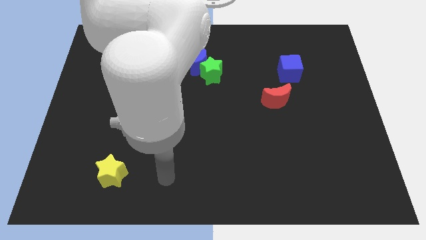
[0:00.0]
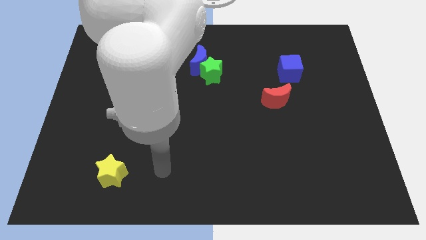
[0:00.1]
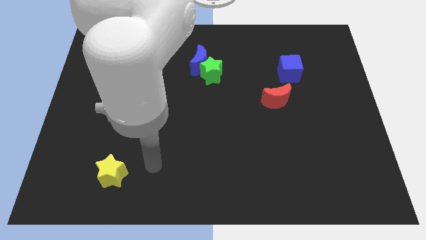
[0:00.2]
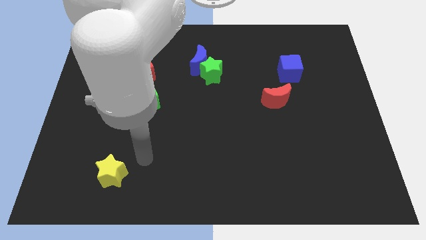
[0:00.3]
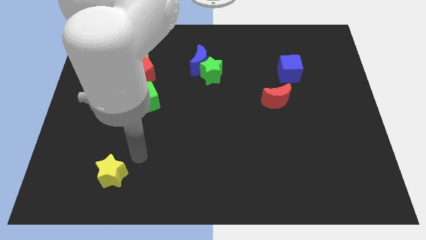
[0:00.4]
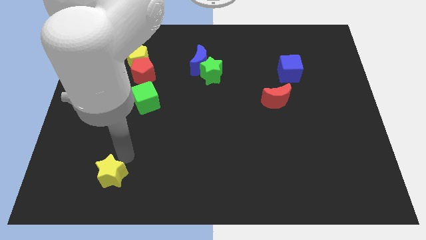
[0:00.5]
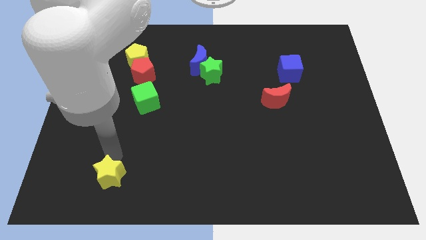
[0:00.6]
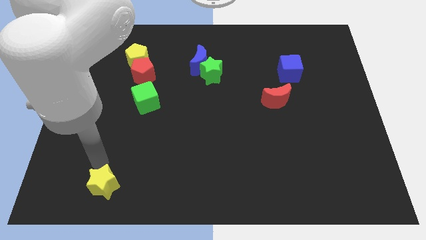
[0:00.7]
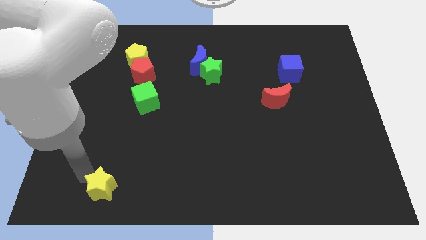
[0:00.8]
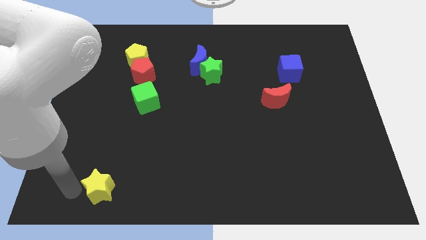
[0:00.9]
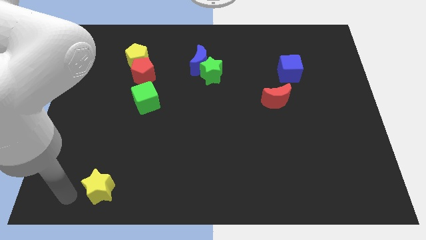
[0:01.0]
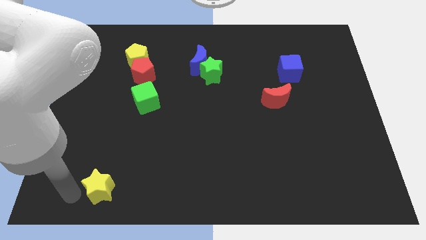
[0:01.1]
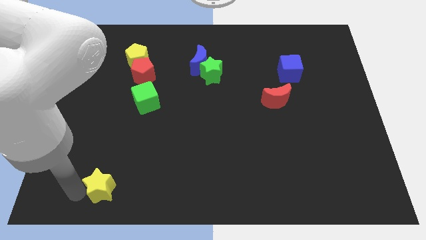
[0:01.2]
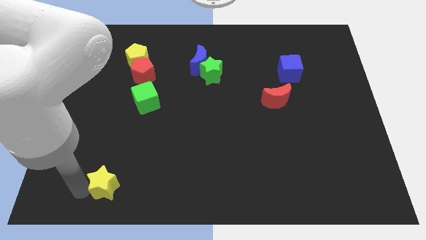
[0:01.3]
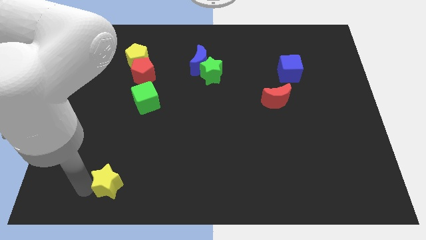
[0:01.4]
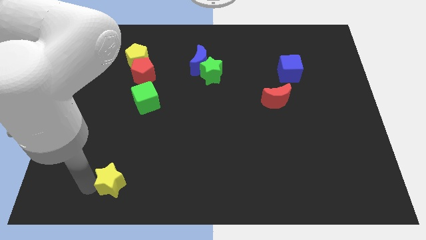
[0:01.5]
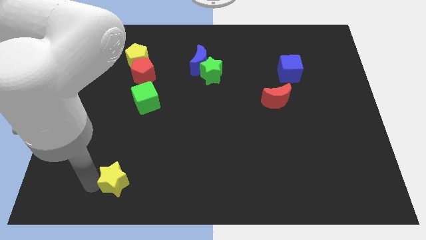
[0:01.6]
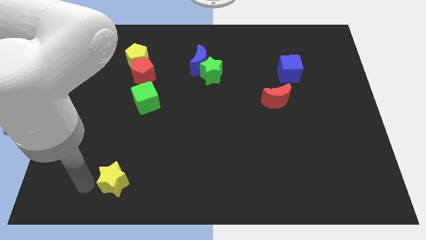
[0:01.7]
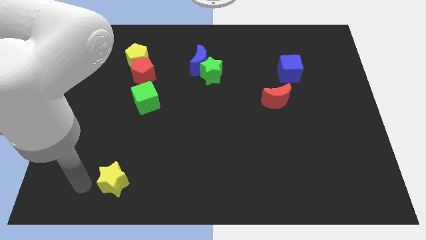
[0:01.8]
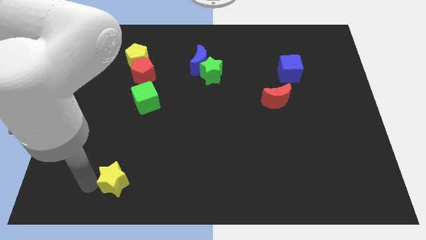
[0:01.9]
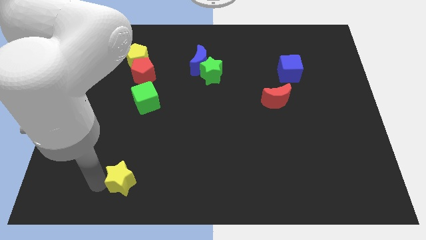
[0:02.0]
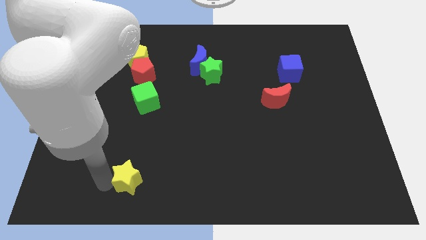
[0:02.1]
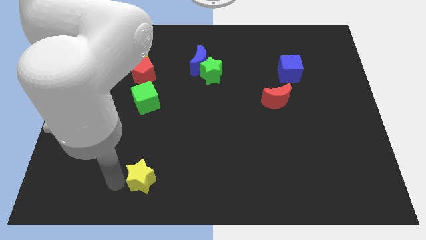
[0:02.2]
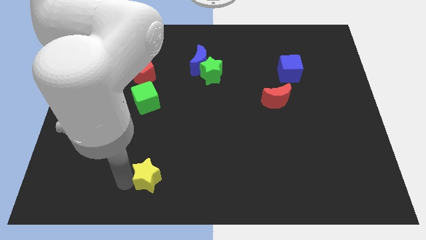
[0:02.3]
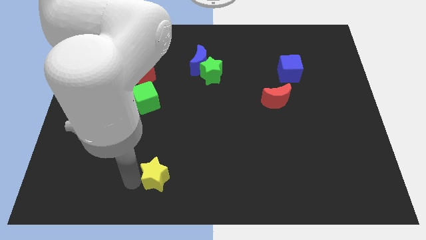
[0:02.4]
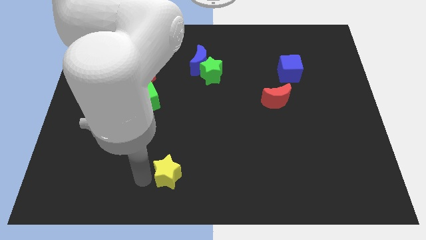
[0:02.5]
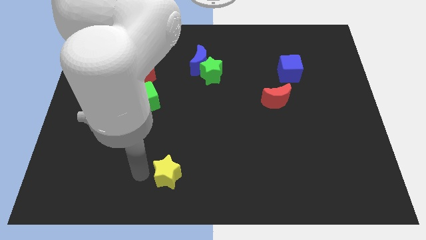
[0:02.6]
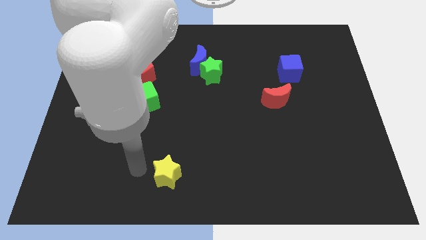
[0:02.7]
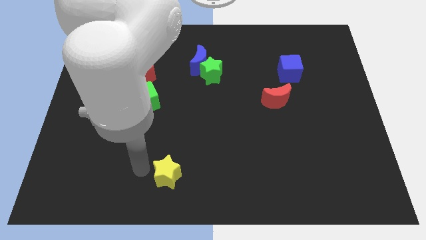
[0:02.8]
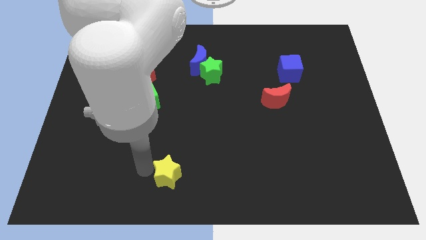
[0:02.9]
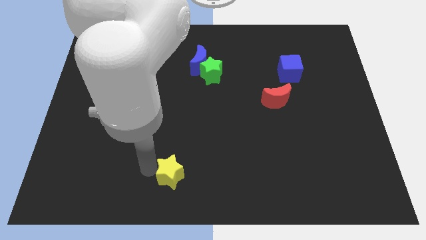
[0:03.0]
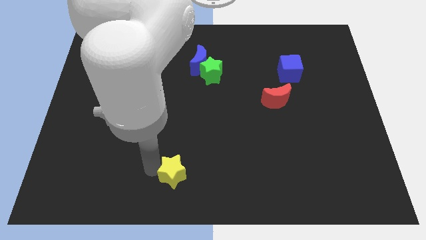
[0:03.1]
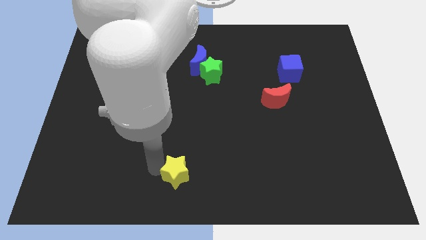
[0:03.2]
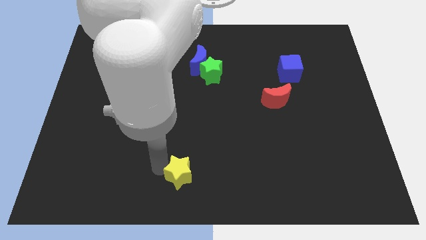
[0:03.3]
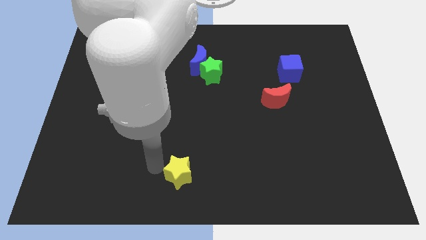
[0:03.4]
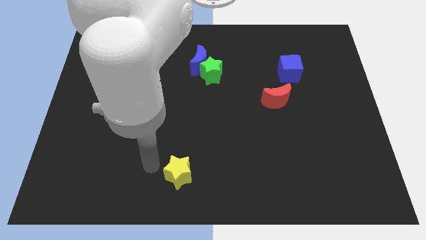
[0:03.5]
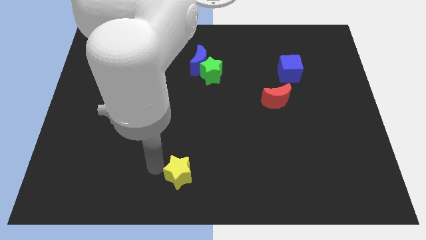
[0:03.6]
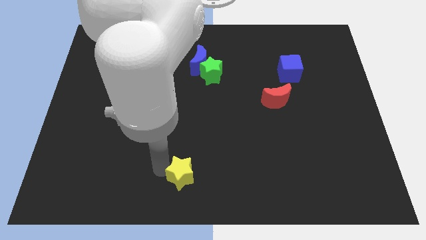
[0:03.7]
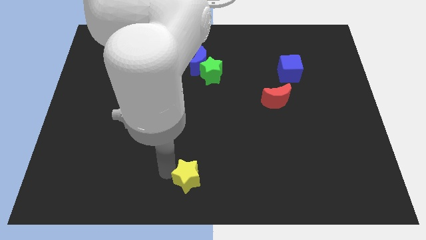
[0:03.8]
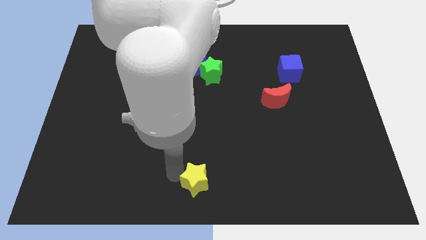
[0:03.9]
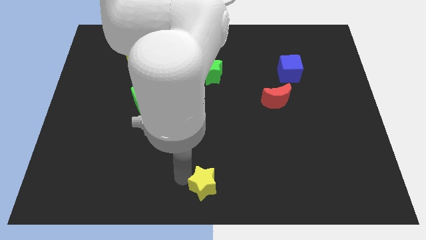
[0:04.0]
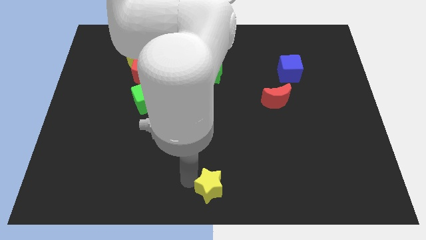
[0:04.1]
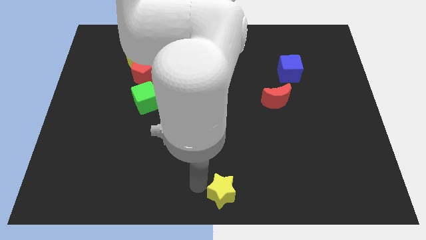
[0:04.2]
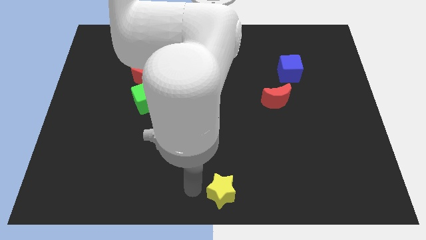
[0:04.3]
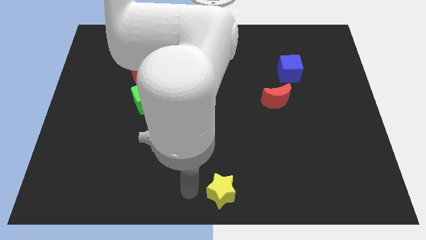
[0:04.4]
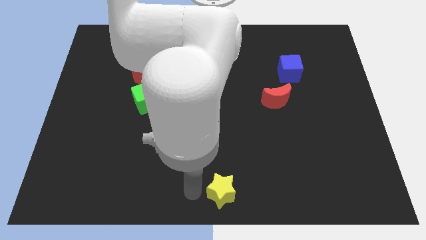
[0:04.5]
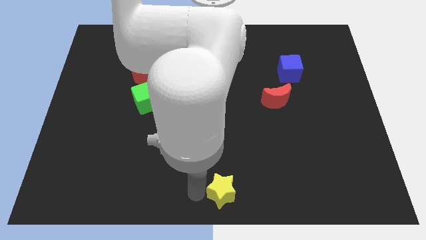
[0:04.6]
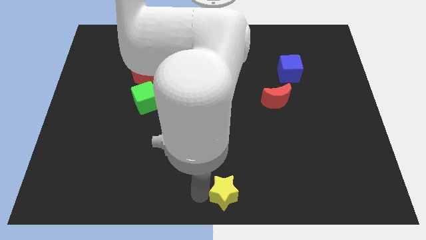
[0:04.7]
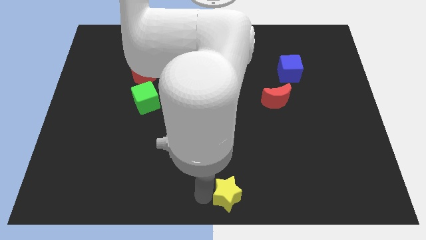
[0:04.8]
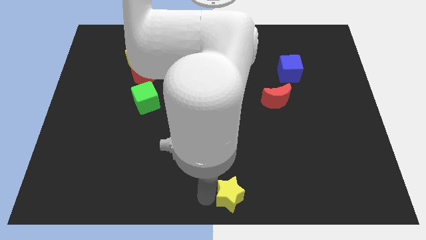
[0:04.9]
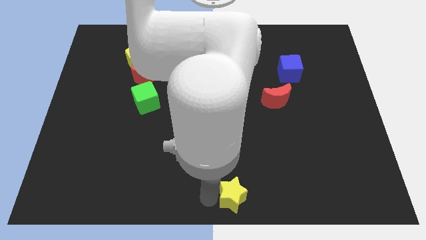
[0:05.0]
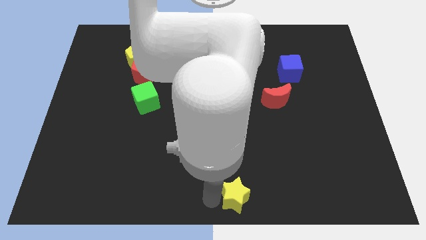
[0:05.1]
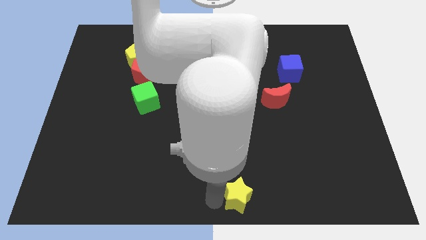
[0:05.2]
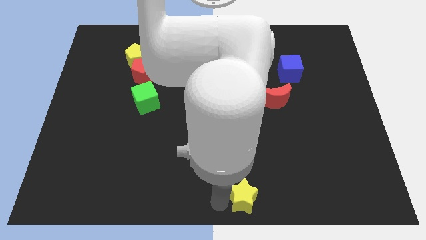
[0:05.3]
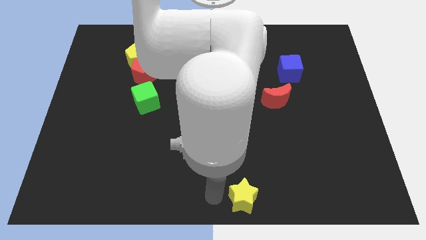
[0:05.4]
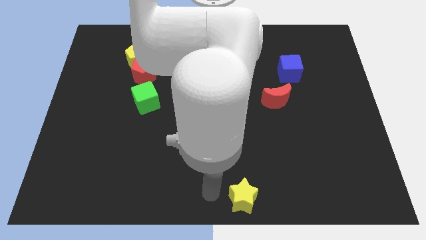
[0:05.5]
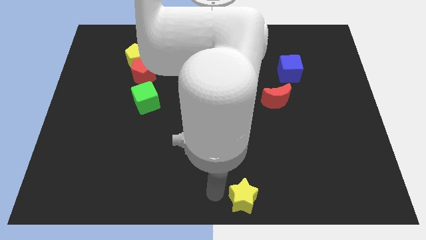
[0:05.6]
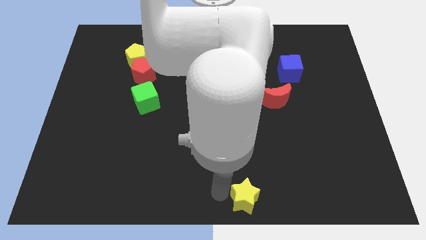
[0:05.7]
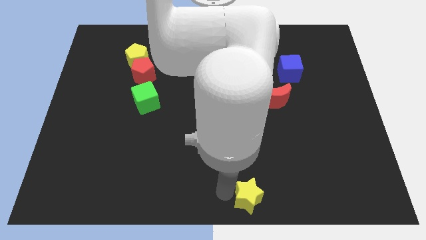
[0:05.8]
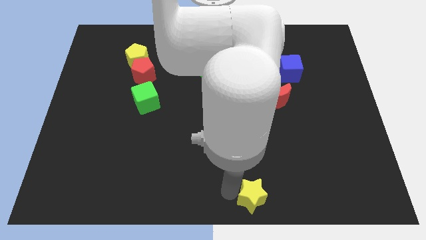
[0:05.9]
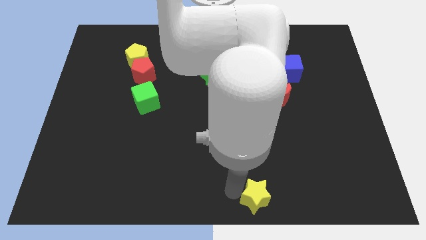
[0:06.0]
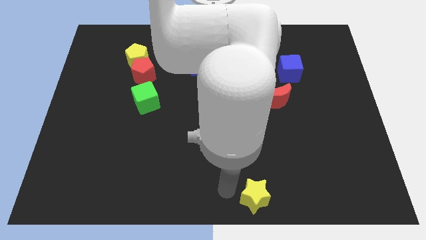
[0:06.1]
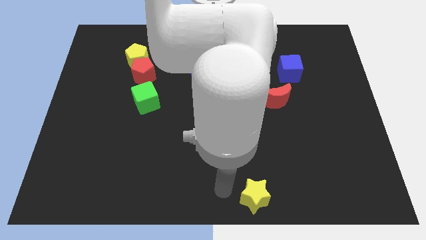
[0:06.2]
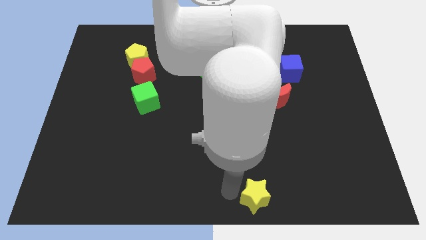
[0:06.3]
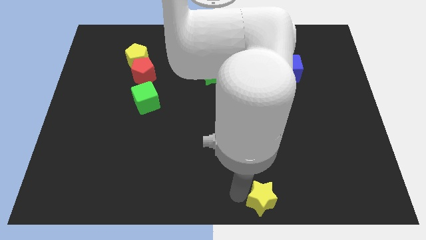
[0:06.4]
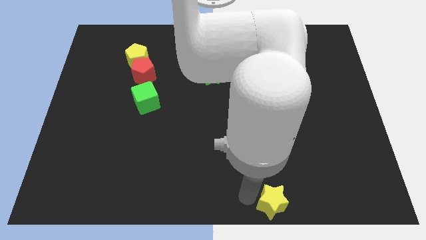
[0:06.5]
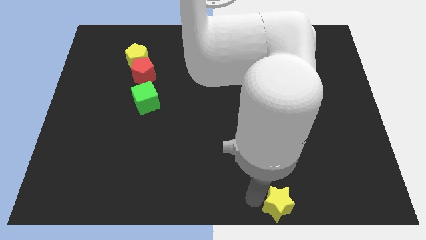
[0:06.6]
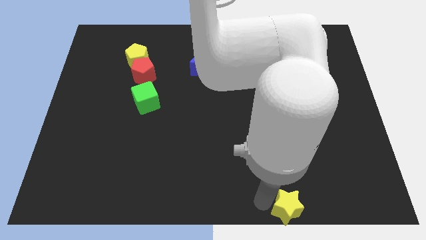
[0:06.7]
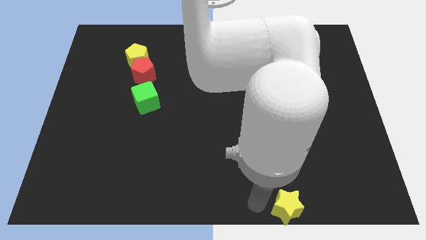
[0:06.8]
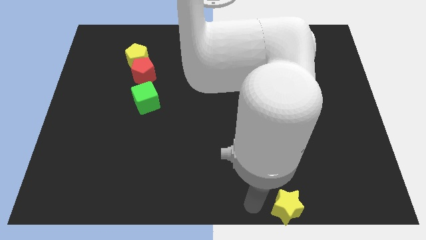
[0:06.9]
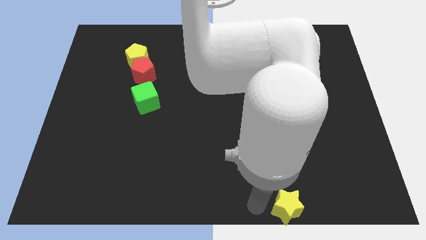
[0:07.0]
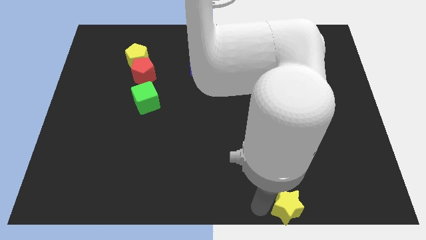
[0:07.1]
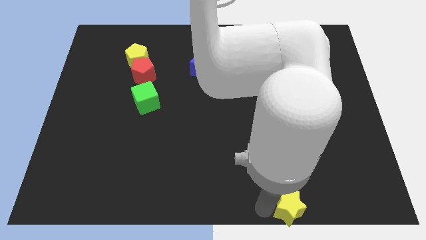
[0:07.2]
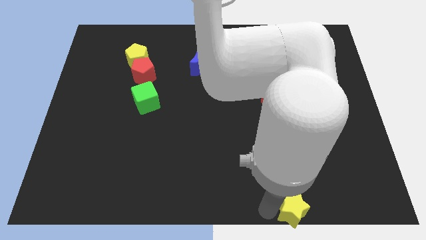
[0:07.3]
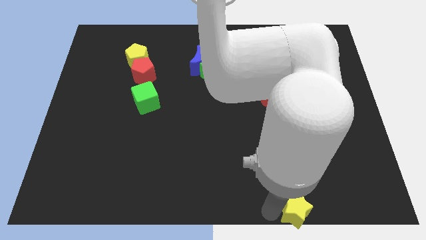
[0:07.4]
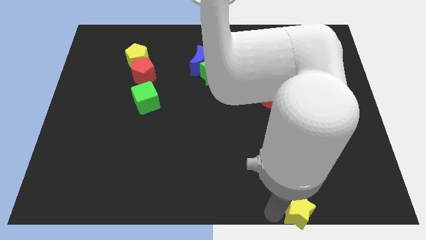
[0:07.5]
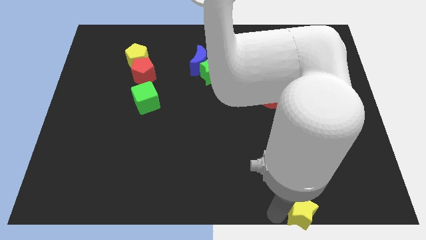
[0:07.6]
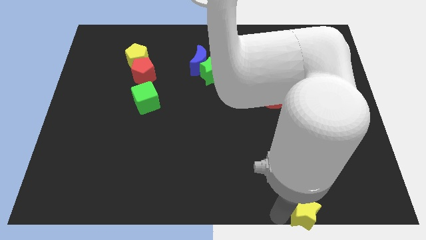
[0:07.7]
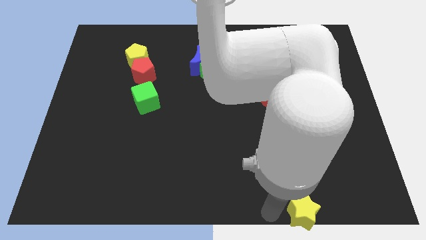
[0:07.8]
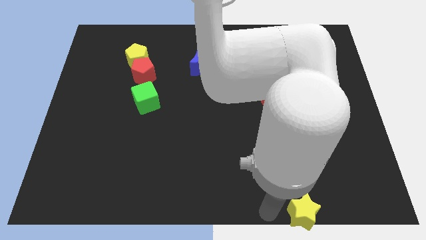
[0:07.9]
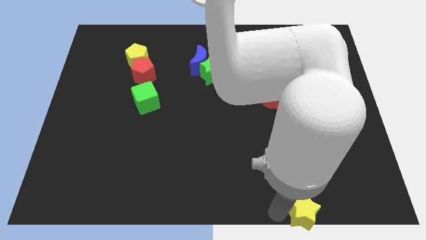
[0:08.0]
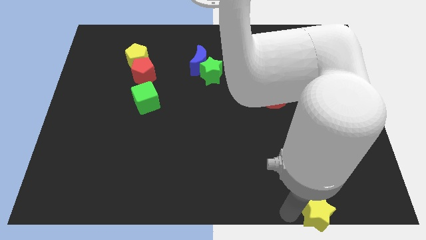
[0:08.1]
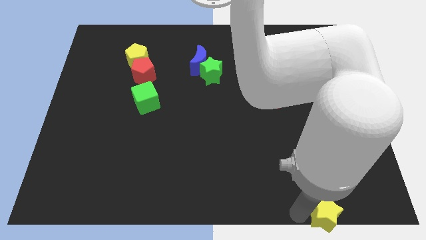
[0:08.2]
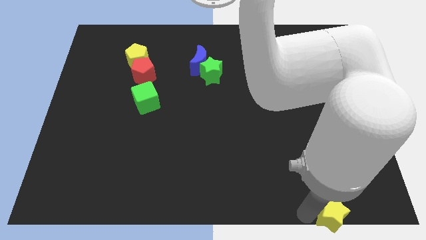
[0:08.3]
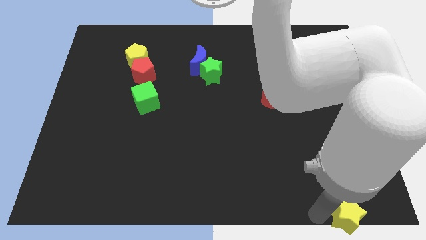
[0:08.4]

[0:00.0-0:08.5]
push the yellow star to the lower right corner
